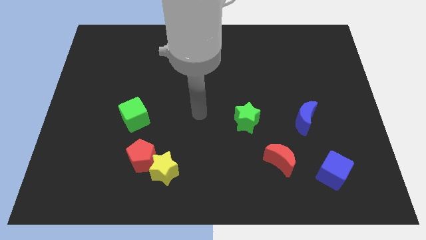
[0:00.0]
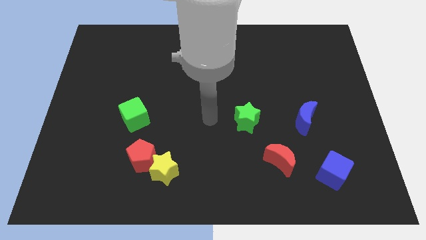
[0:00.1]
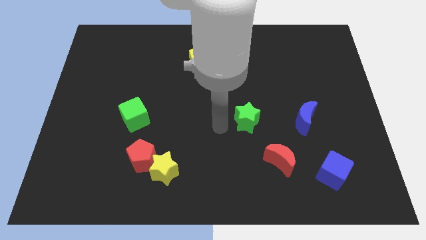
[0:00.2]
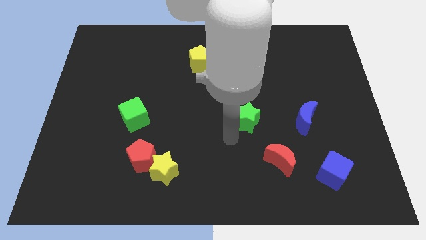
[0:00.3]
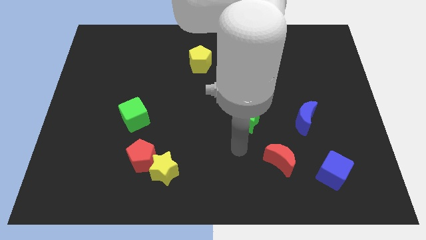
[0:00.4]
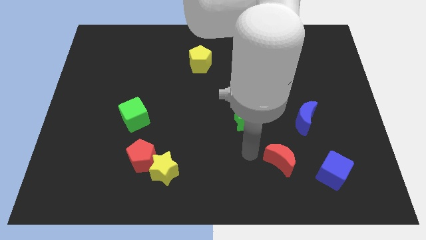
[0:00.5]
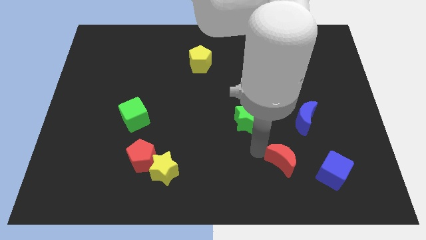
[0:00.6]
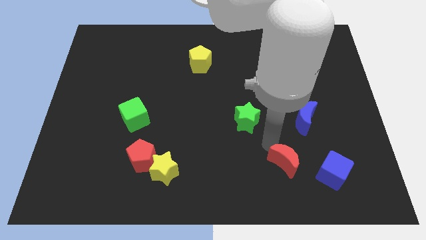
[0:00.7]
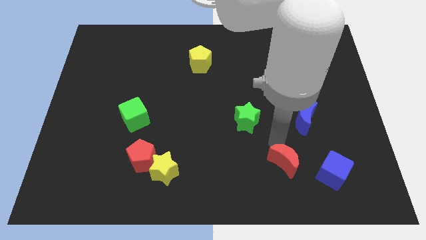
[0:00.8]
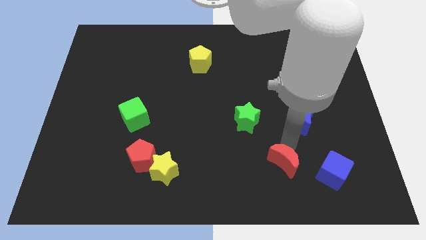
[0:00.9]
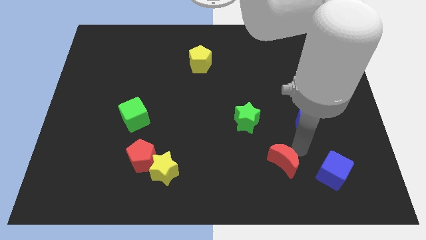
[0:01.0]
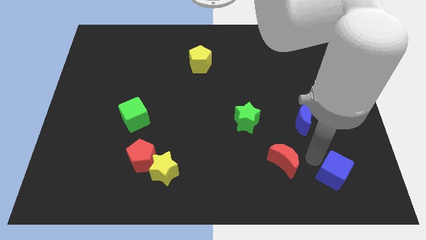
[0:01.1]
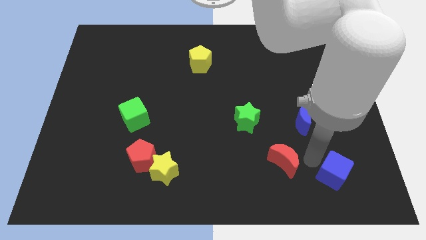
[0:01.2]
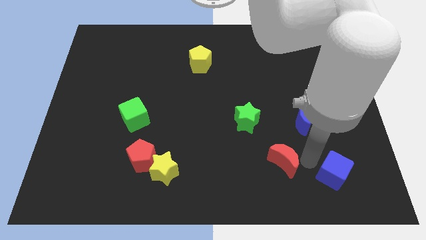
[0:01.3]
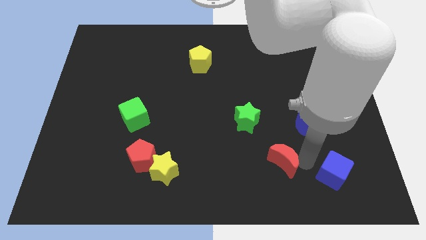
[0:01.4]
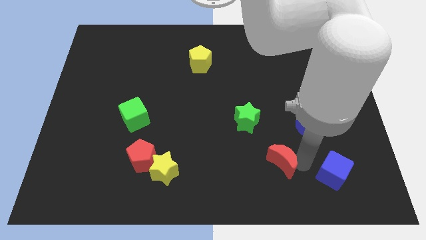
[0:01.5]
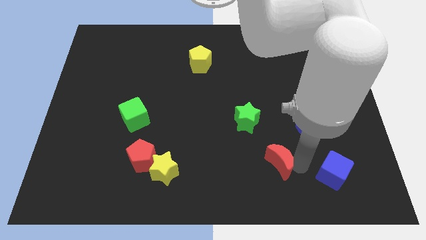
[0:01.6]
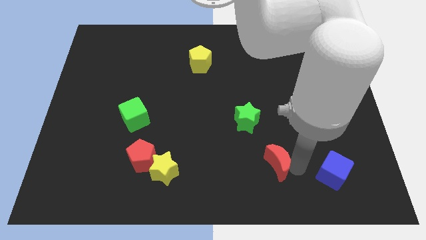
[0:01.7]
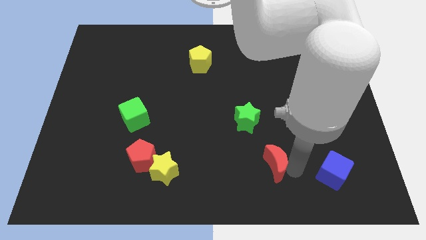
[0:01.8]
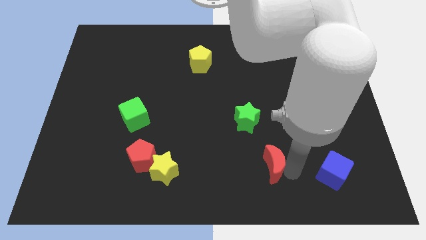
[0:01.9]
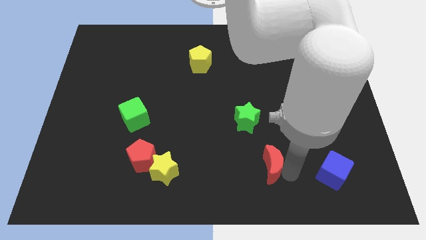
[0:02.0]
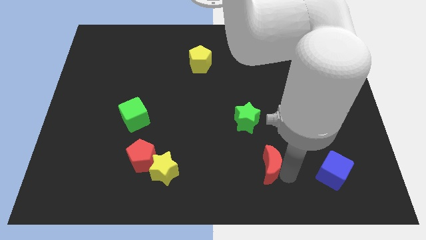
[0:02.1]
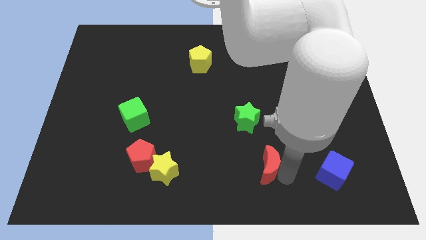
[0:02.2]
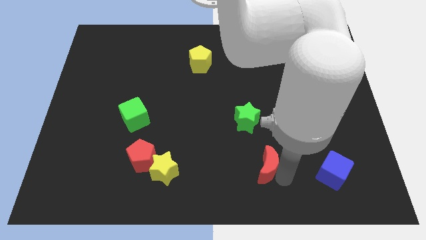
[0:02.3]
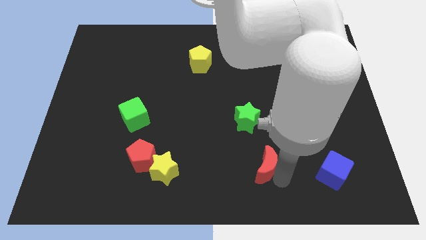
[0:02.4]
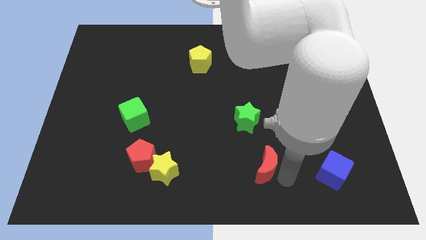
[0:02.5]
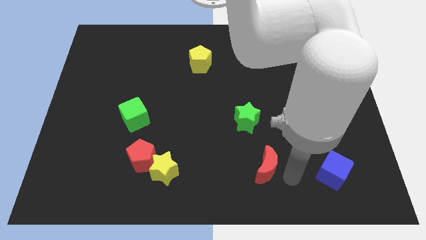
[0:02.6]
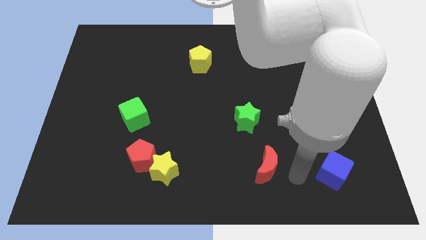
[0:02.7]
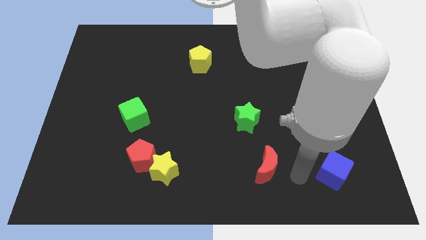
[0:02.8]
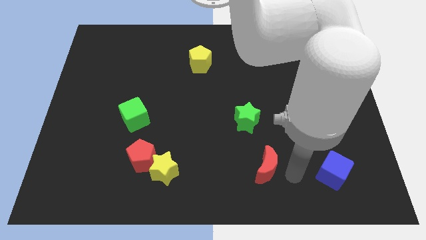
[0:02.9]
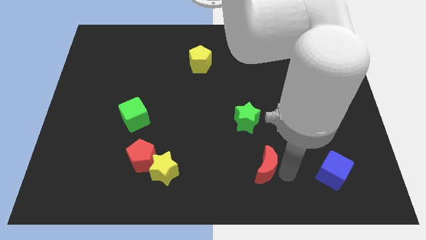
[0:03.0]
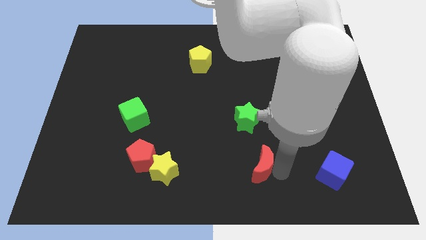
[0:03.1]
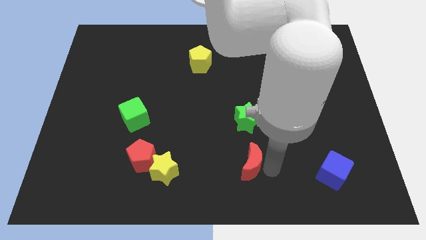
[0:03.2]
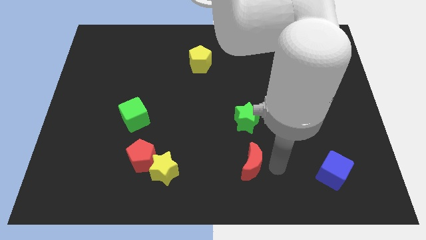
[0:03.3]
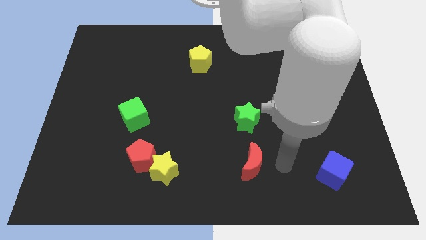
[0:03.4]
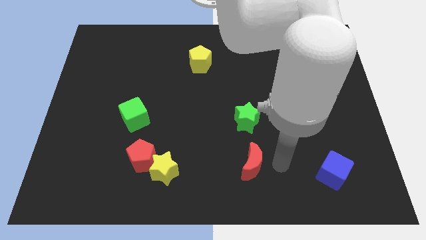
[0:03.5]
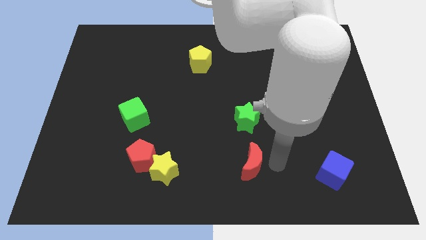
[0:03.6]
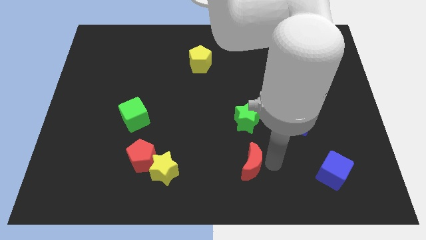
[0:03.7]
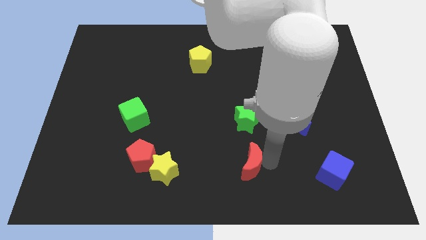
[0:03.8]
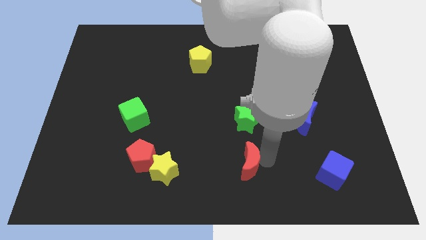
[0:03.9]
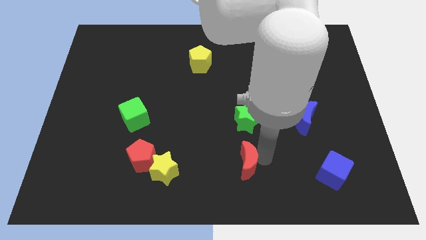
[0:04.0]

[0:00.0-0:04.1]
push the red moon somewhat left

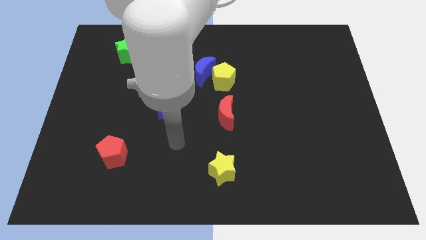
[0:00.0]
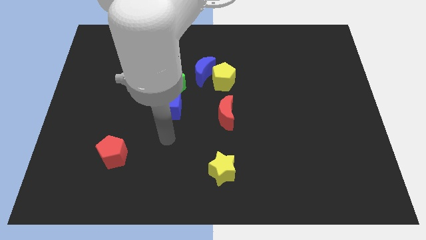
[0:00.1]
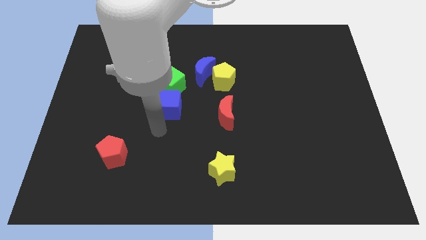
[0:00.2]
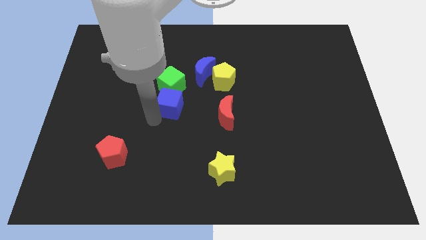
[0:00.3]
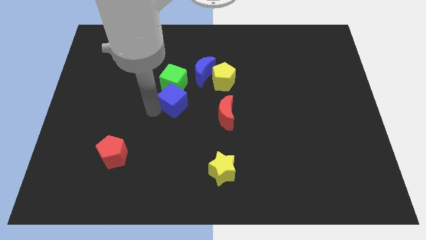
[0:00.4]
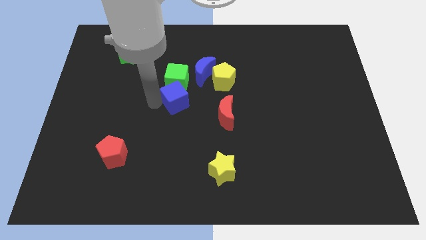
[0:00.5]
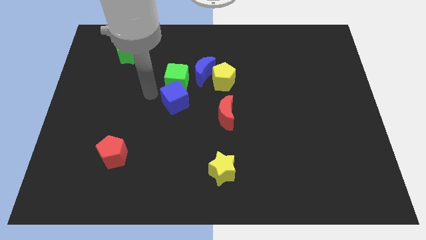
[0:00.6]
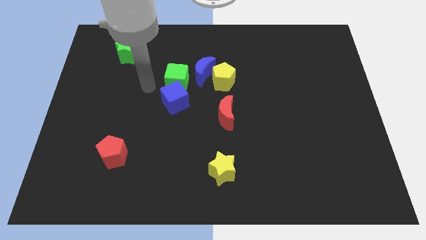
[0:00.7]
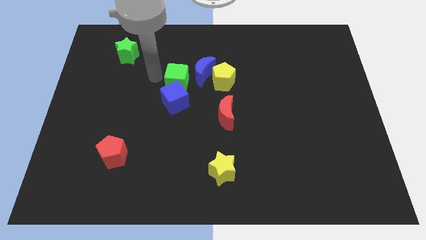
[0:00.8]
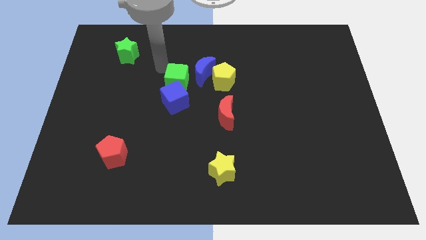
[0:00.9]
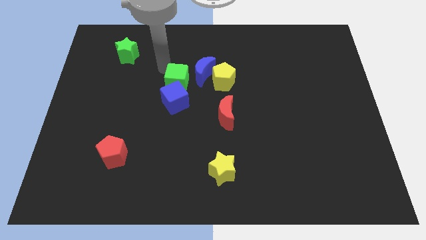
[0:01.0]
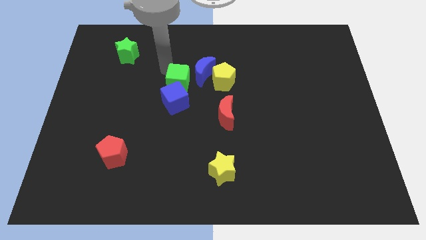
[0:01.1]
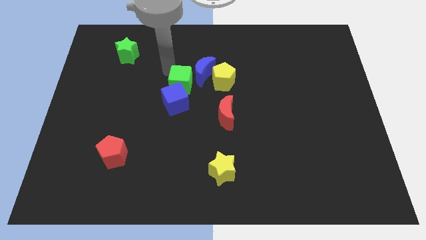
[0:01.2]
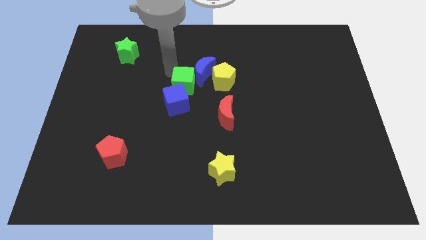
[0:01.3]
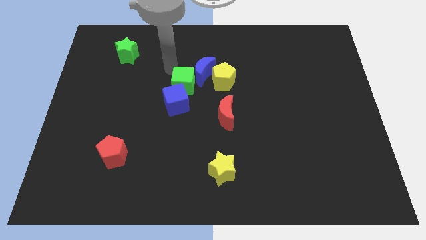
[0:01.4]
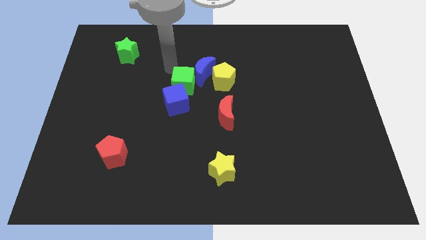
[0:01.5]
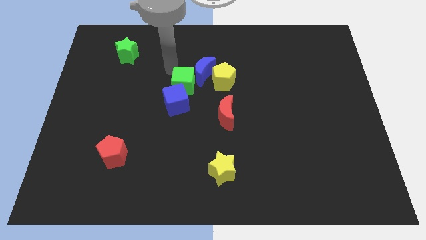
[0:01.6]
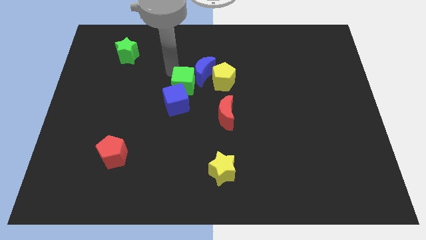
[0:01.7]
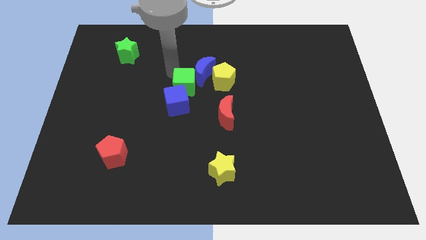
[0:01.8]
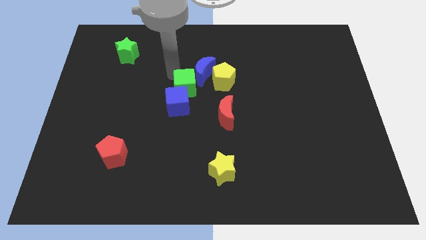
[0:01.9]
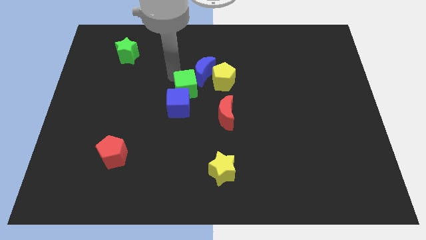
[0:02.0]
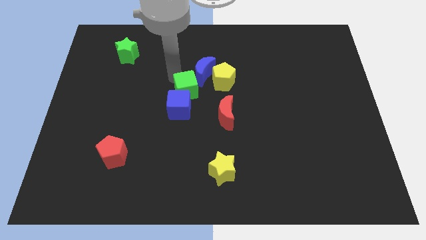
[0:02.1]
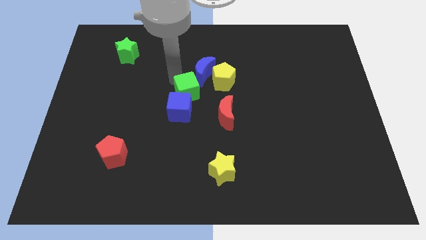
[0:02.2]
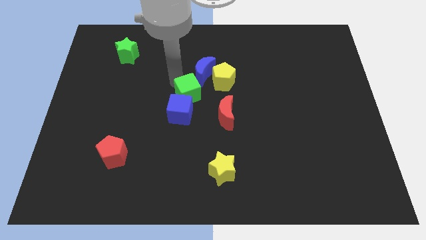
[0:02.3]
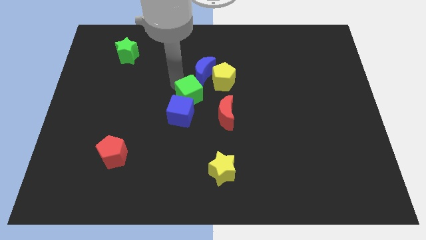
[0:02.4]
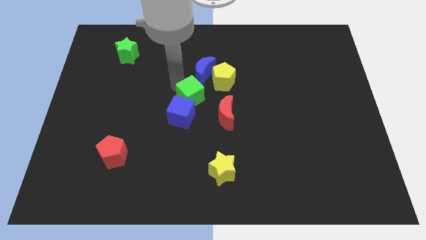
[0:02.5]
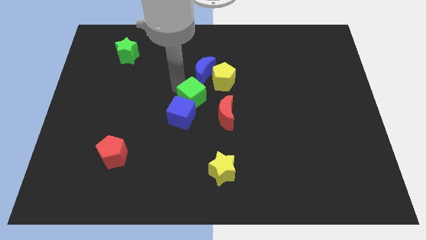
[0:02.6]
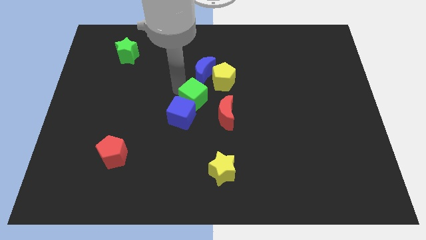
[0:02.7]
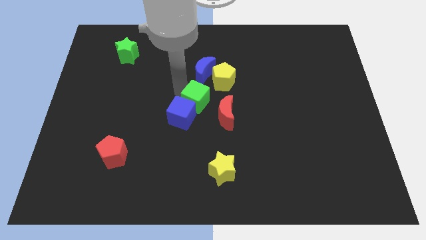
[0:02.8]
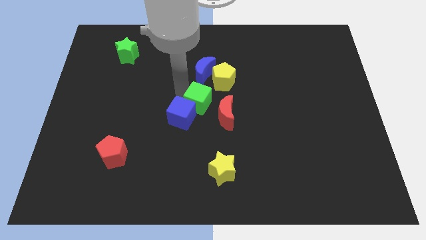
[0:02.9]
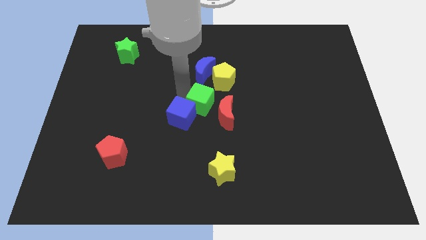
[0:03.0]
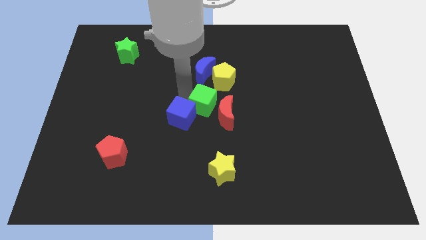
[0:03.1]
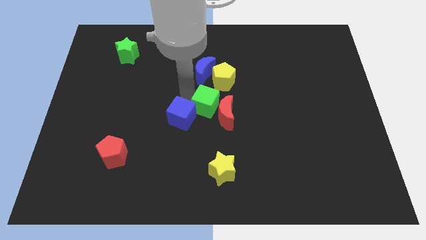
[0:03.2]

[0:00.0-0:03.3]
push the green cube right slightly

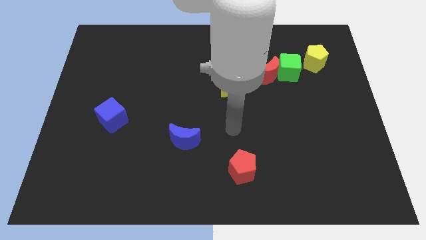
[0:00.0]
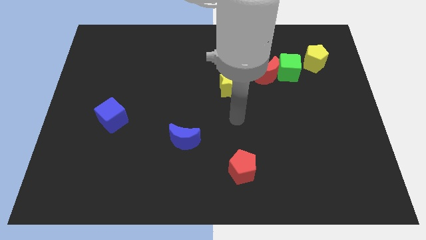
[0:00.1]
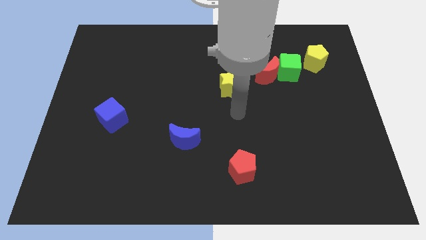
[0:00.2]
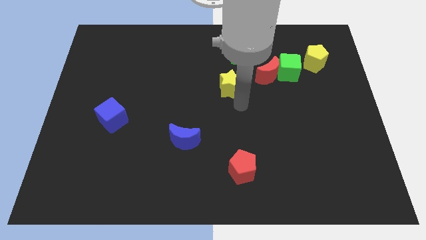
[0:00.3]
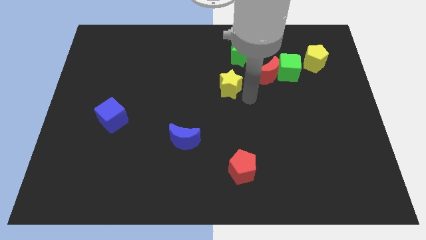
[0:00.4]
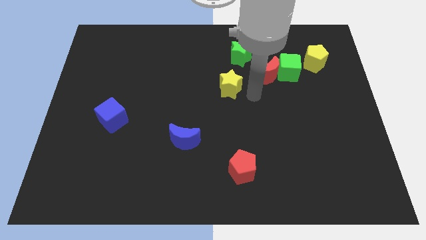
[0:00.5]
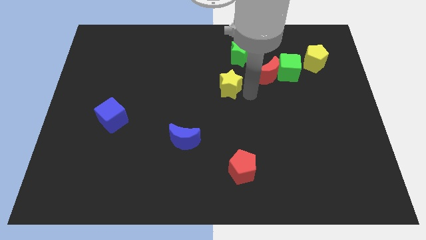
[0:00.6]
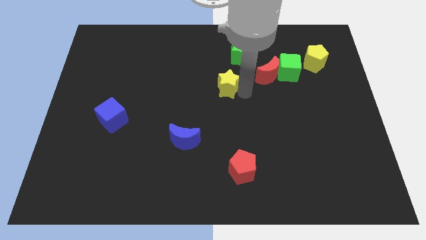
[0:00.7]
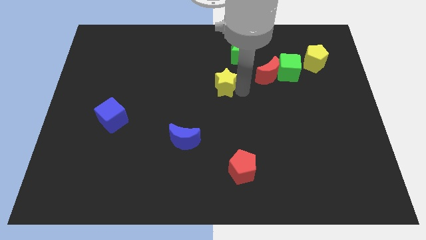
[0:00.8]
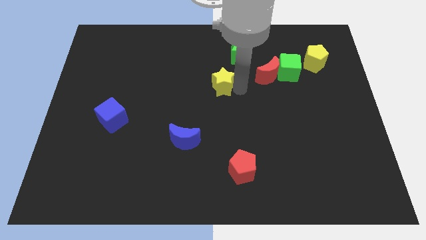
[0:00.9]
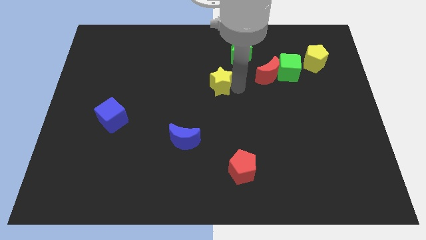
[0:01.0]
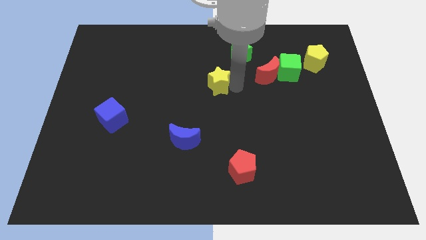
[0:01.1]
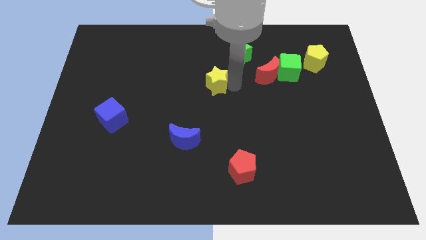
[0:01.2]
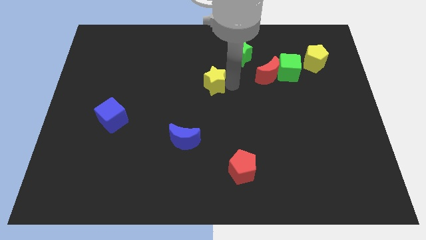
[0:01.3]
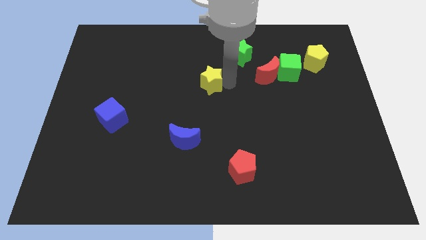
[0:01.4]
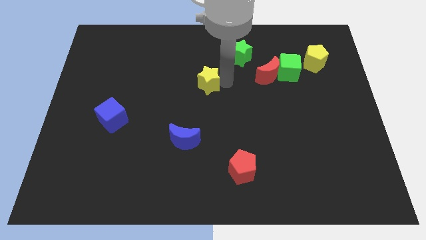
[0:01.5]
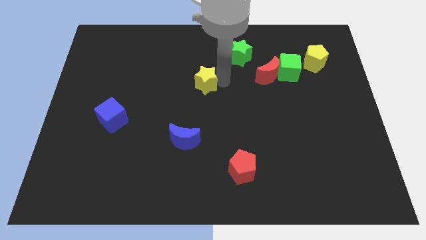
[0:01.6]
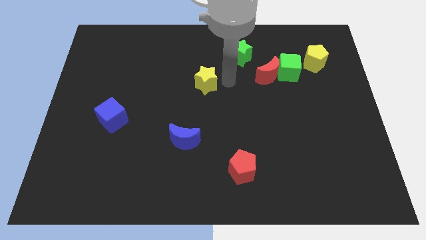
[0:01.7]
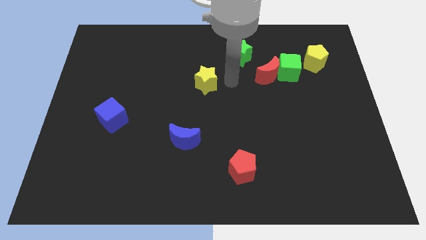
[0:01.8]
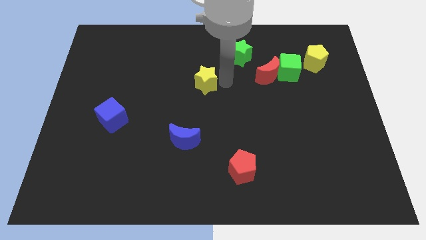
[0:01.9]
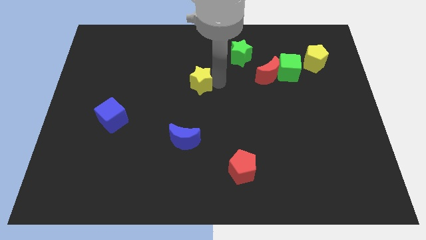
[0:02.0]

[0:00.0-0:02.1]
move the yellow star a bit to the left
